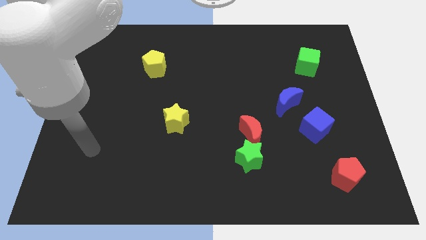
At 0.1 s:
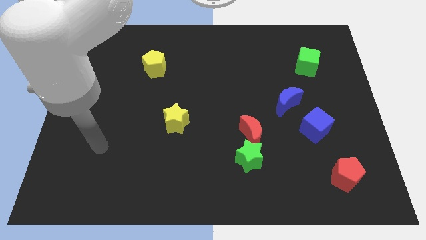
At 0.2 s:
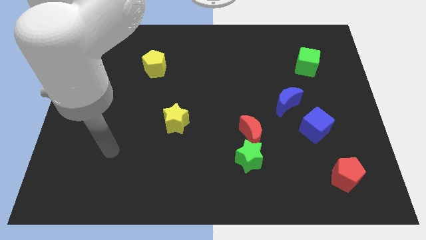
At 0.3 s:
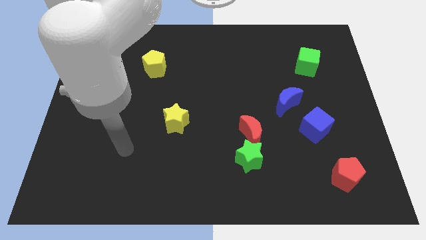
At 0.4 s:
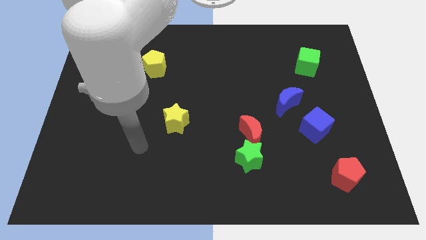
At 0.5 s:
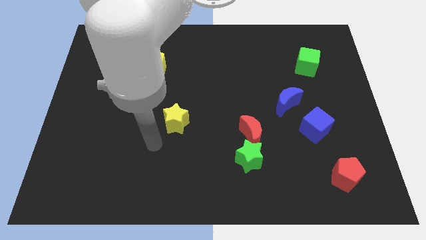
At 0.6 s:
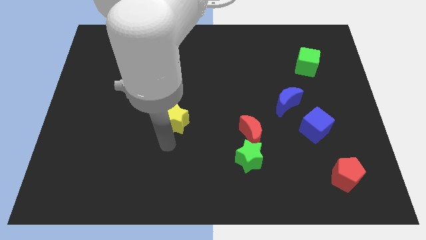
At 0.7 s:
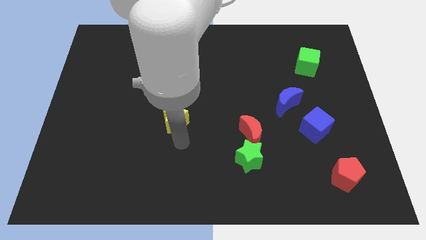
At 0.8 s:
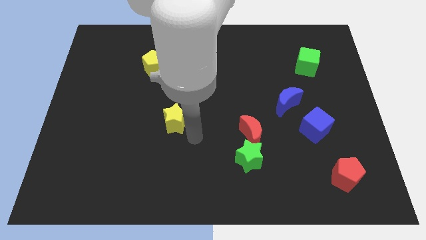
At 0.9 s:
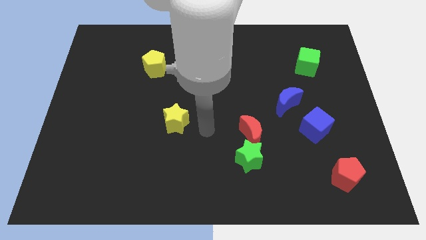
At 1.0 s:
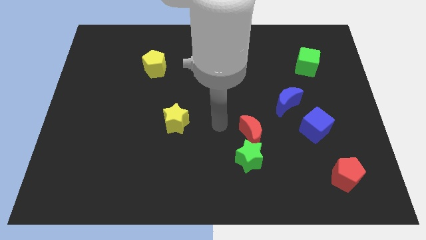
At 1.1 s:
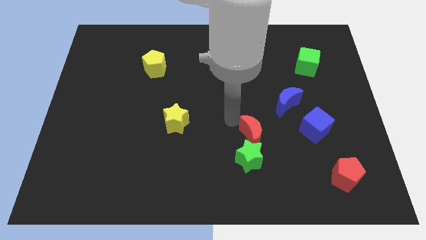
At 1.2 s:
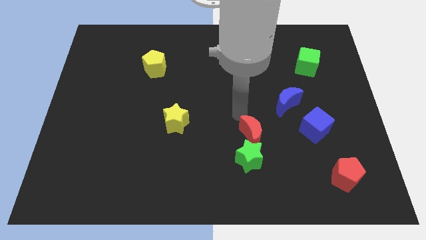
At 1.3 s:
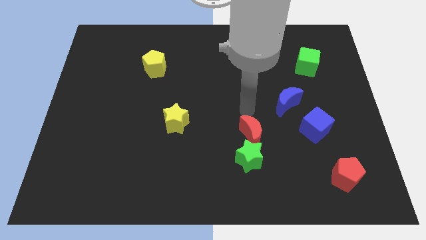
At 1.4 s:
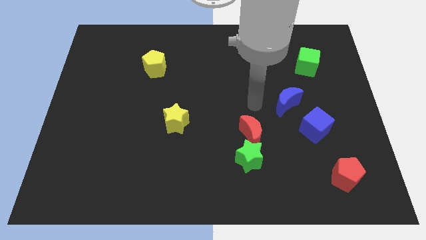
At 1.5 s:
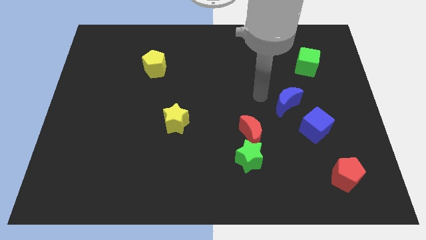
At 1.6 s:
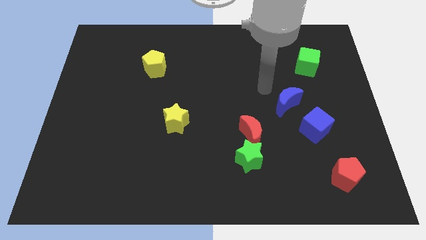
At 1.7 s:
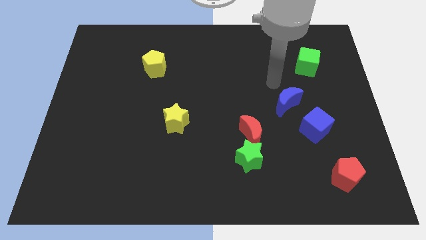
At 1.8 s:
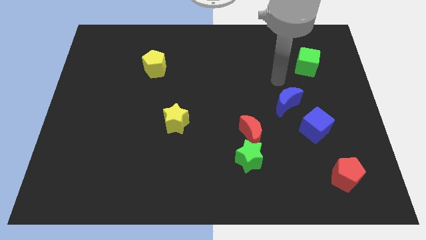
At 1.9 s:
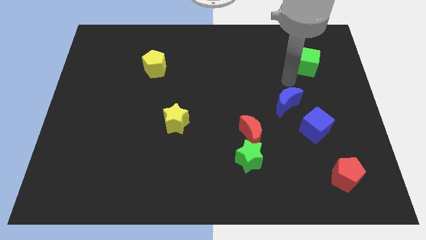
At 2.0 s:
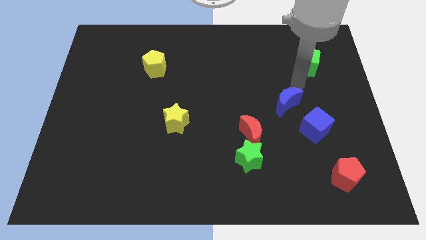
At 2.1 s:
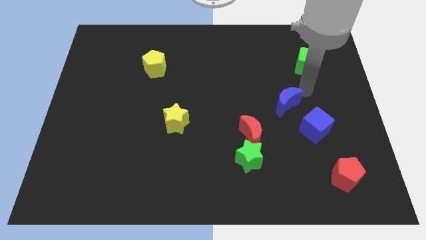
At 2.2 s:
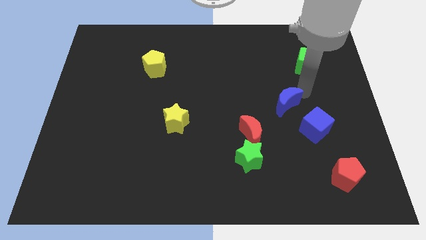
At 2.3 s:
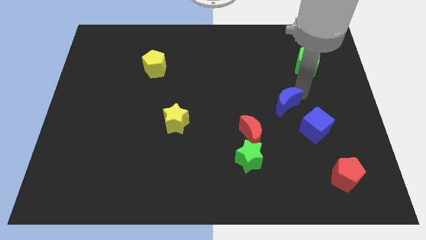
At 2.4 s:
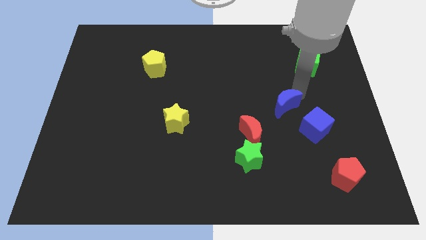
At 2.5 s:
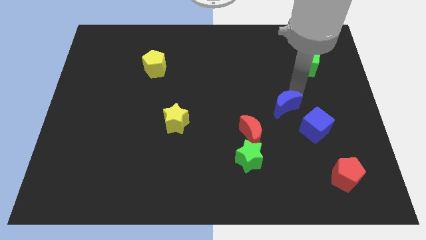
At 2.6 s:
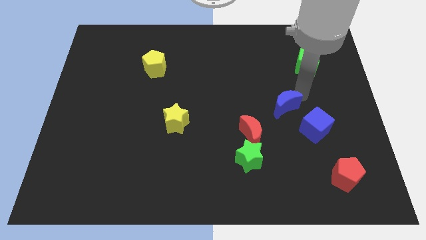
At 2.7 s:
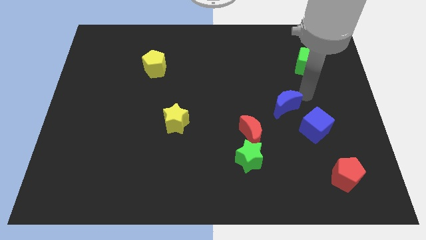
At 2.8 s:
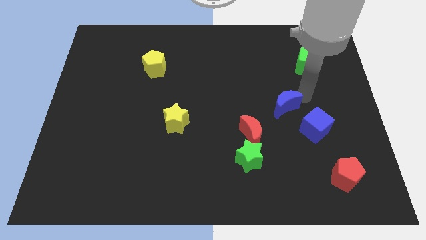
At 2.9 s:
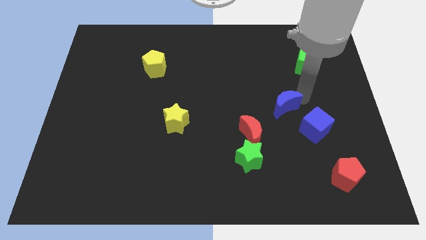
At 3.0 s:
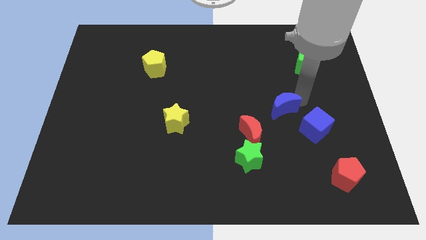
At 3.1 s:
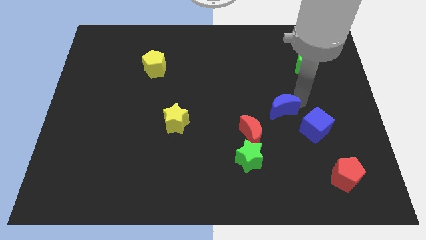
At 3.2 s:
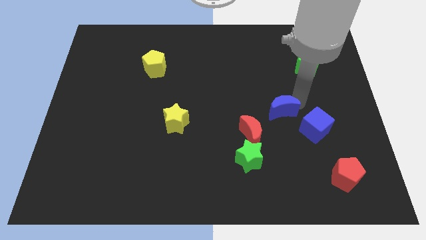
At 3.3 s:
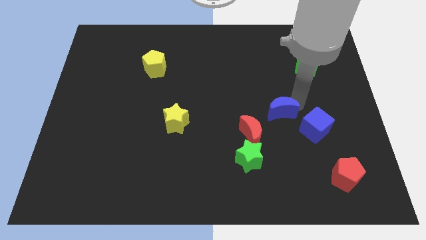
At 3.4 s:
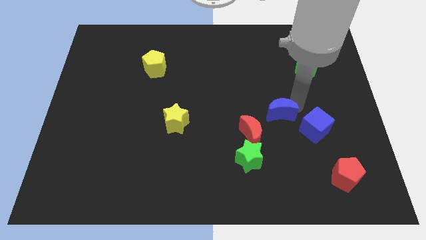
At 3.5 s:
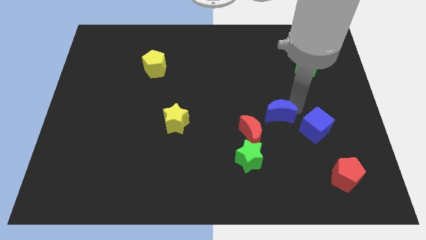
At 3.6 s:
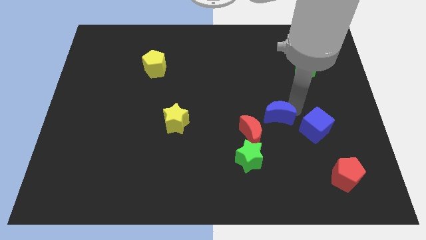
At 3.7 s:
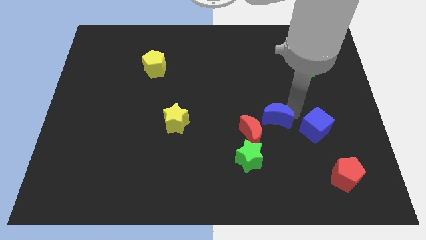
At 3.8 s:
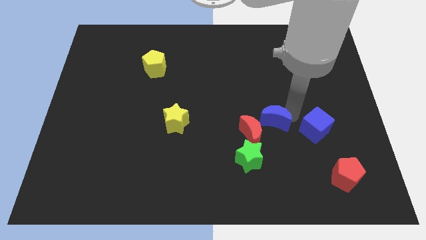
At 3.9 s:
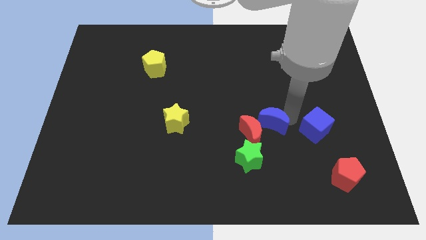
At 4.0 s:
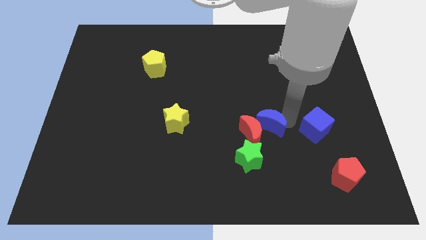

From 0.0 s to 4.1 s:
slightly slide the blue moon down and to the left

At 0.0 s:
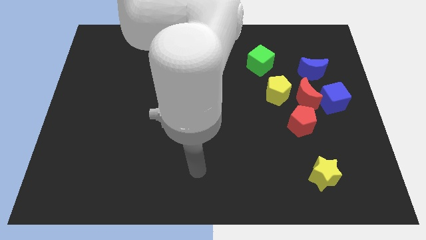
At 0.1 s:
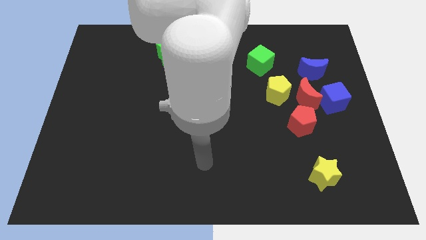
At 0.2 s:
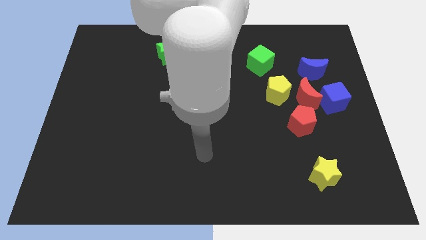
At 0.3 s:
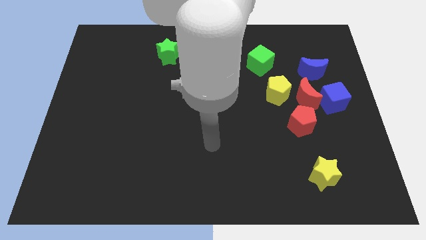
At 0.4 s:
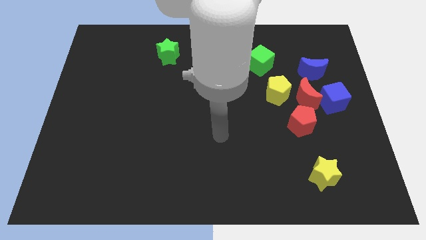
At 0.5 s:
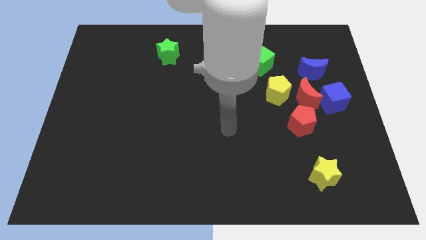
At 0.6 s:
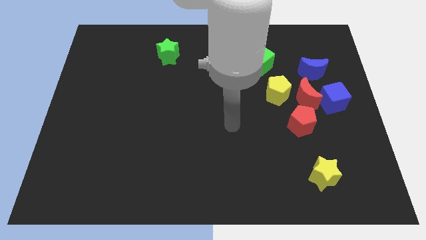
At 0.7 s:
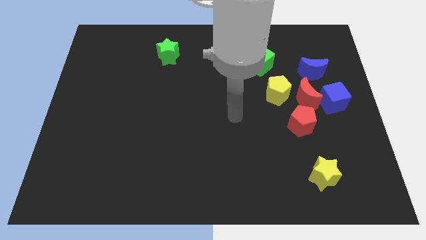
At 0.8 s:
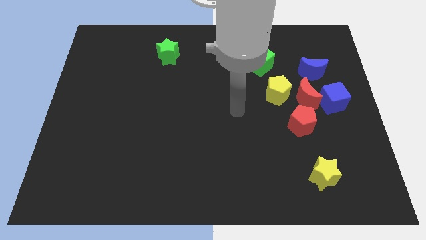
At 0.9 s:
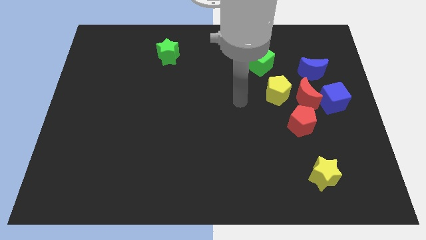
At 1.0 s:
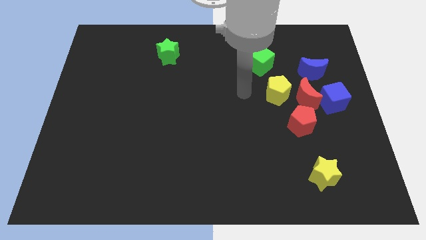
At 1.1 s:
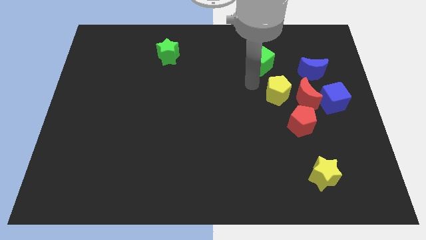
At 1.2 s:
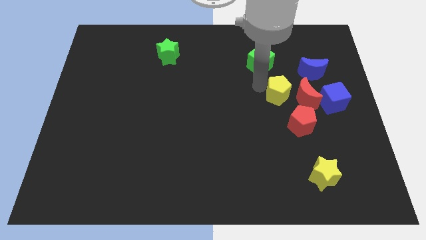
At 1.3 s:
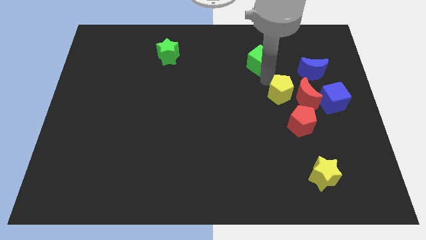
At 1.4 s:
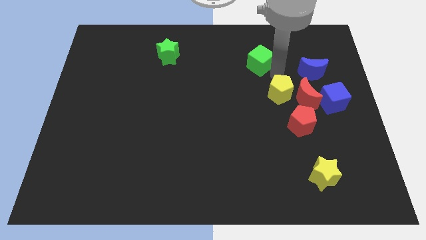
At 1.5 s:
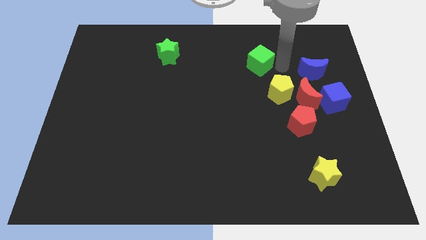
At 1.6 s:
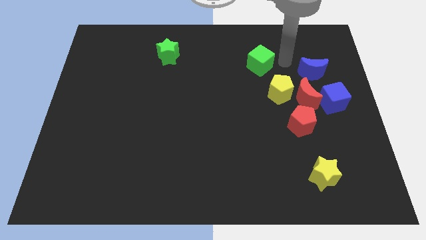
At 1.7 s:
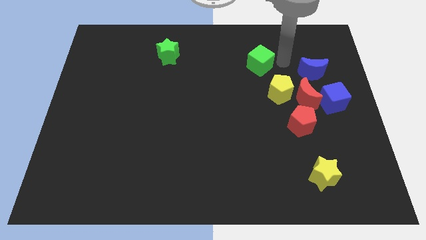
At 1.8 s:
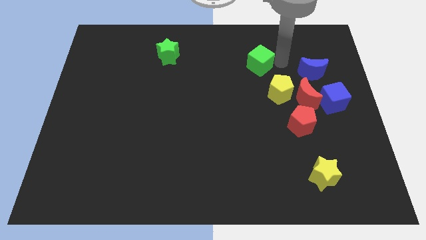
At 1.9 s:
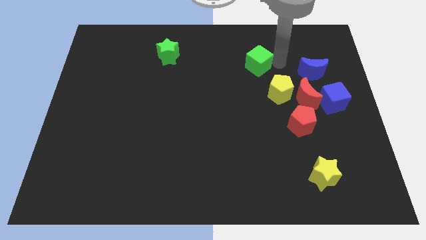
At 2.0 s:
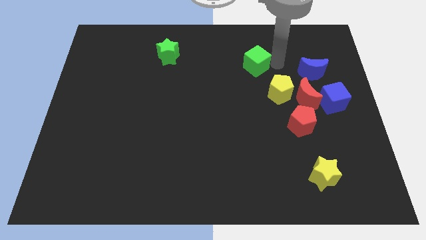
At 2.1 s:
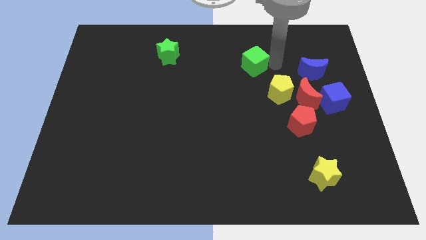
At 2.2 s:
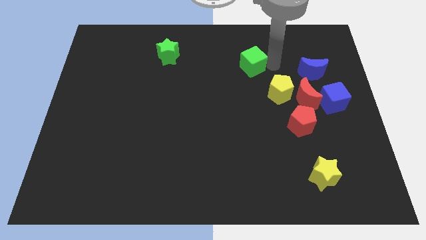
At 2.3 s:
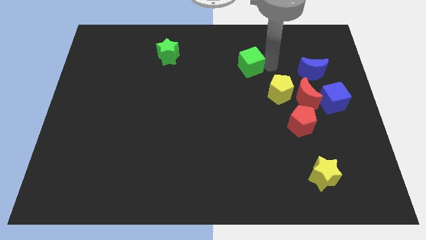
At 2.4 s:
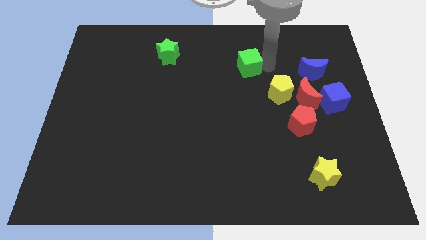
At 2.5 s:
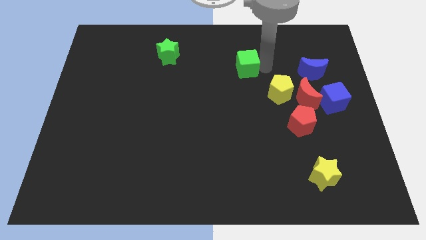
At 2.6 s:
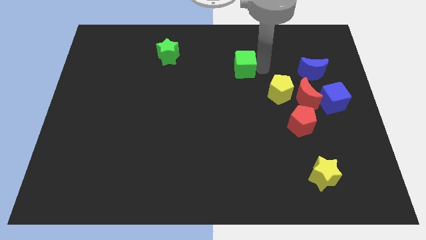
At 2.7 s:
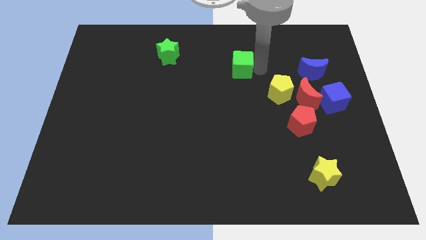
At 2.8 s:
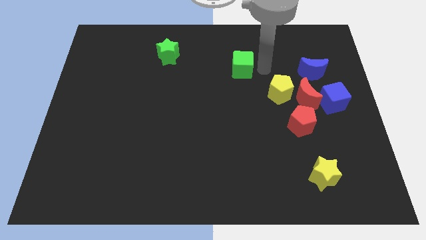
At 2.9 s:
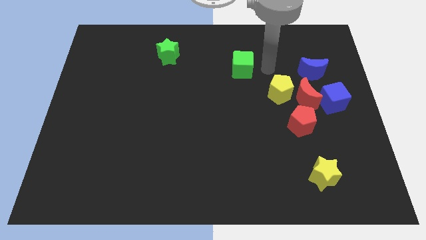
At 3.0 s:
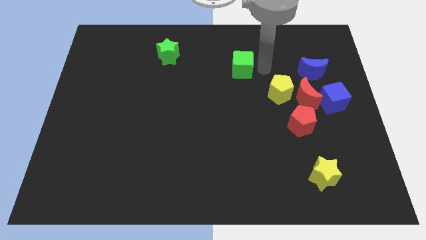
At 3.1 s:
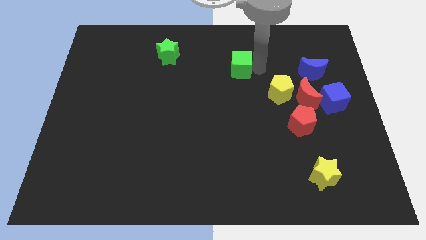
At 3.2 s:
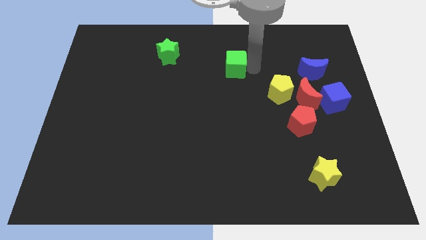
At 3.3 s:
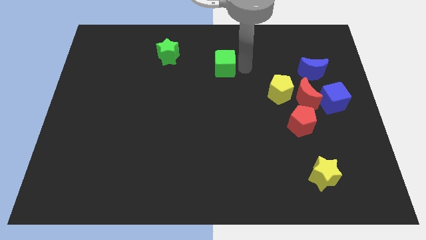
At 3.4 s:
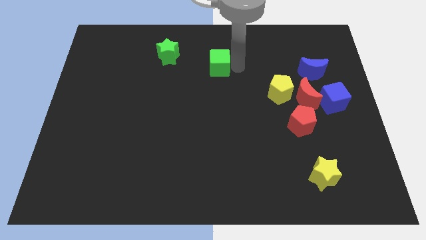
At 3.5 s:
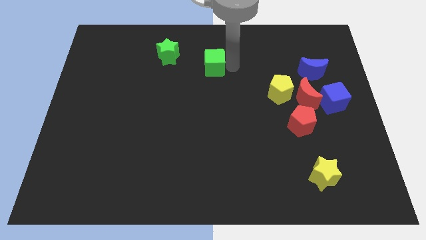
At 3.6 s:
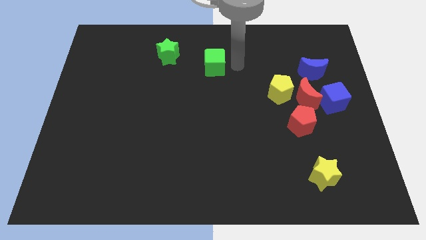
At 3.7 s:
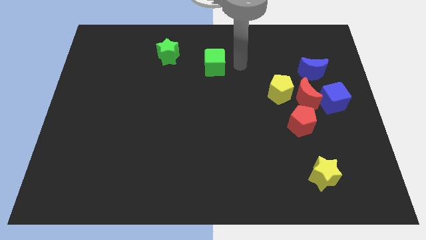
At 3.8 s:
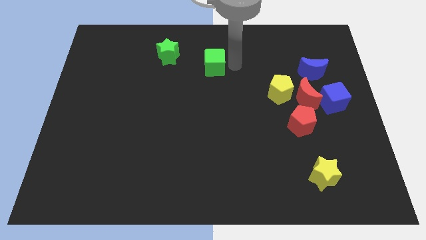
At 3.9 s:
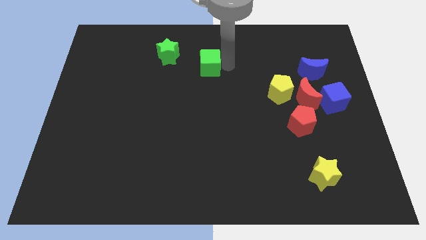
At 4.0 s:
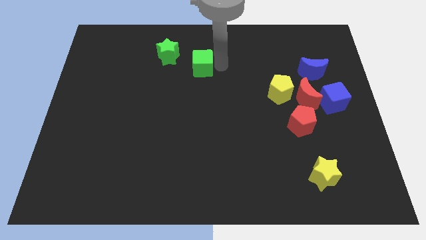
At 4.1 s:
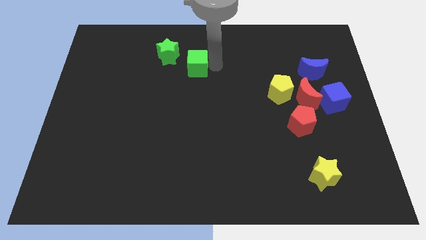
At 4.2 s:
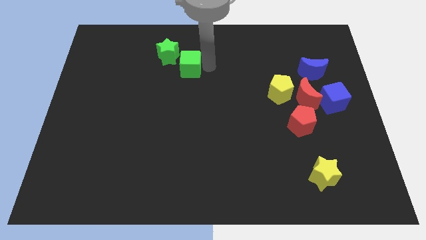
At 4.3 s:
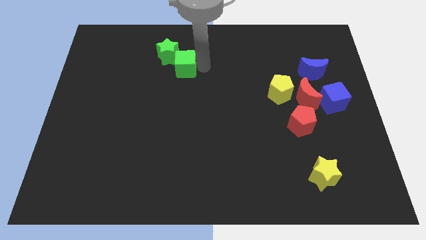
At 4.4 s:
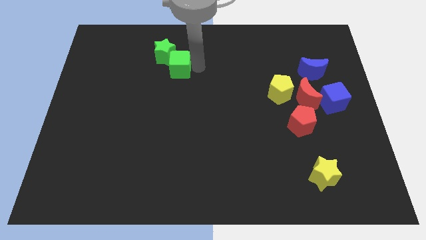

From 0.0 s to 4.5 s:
move the green cube left
